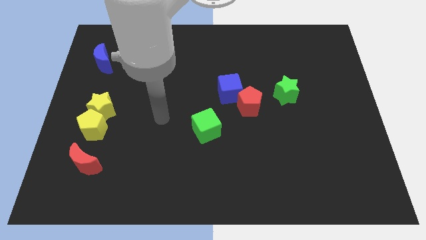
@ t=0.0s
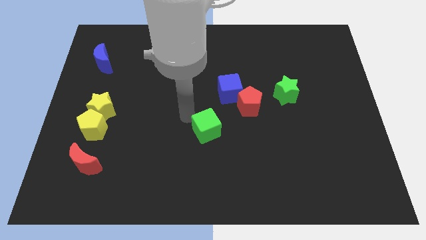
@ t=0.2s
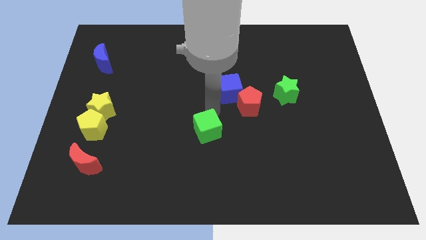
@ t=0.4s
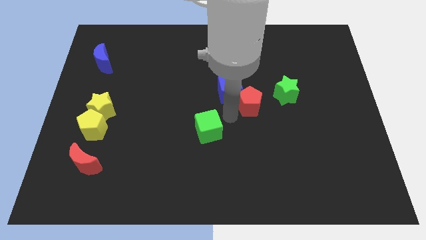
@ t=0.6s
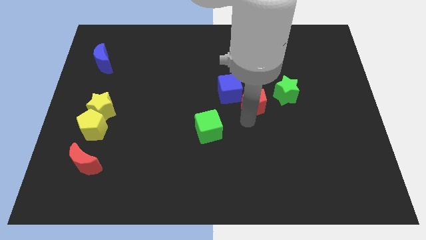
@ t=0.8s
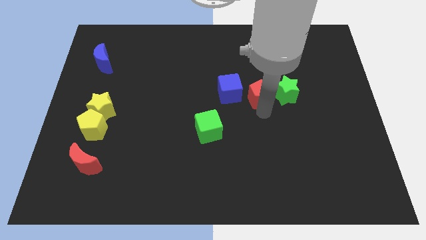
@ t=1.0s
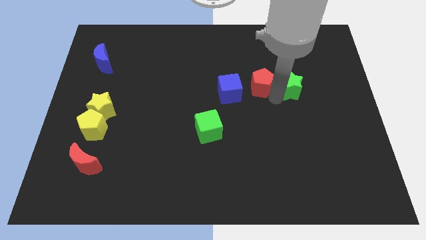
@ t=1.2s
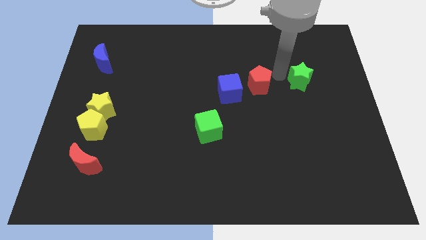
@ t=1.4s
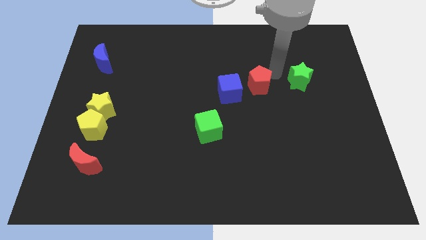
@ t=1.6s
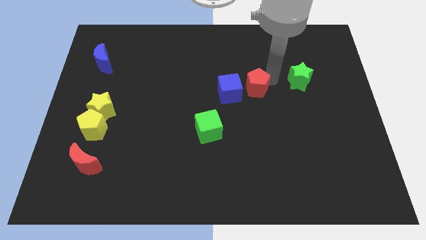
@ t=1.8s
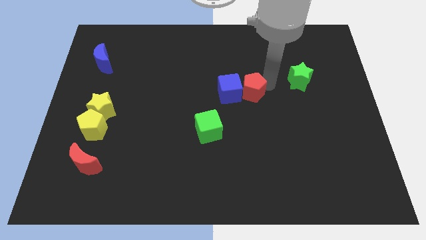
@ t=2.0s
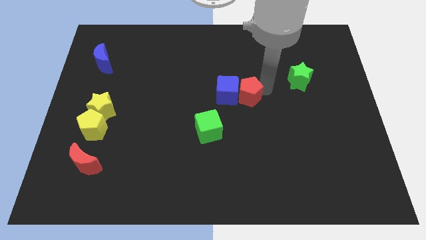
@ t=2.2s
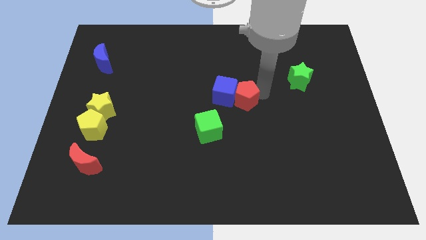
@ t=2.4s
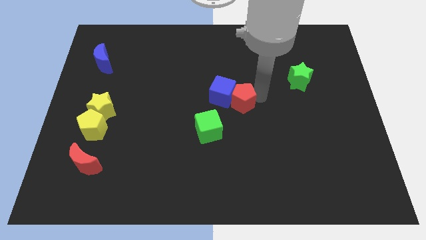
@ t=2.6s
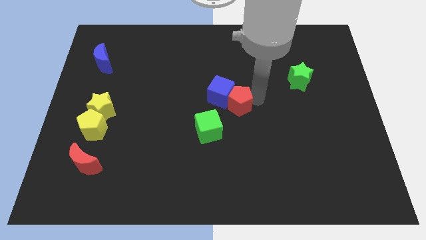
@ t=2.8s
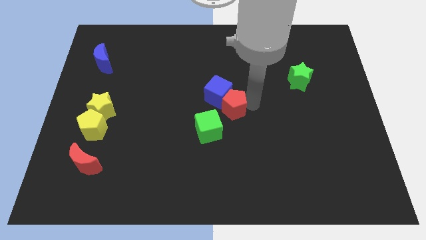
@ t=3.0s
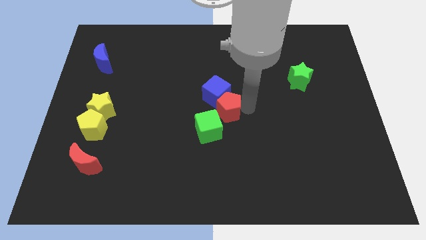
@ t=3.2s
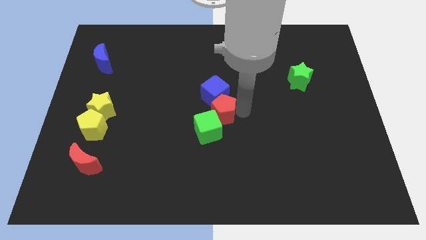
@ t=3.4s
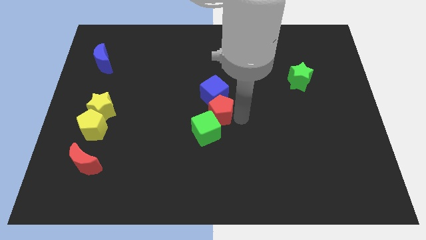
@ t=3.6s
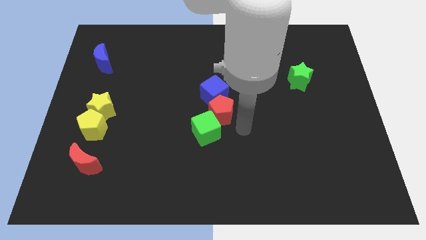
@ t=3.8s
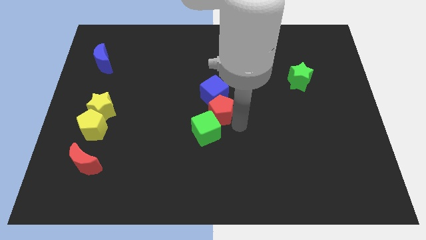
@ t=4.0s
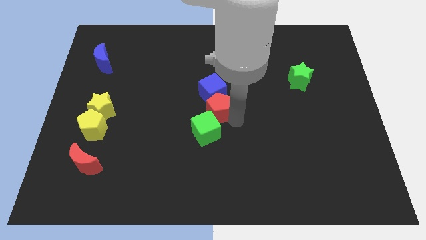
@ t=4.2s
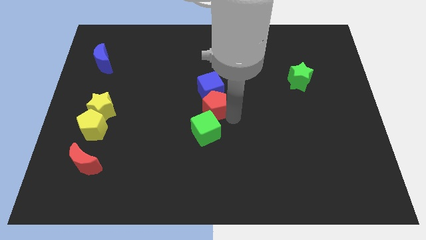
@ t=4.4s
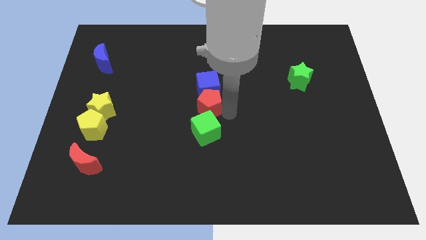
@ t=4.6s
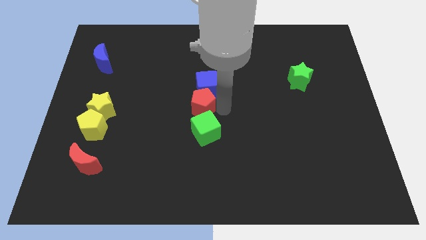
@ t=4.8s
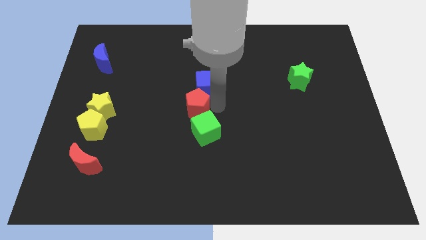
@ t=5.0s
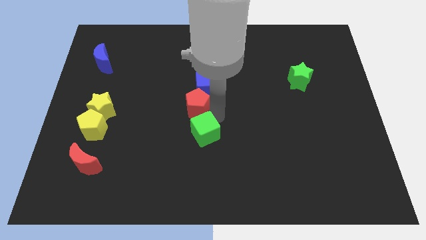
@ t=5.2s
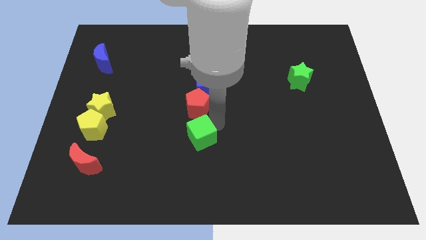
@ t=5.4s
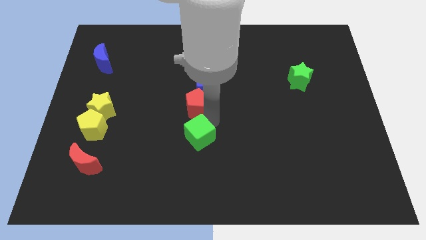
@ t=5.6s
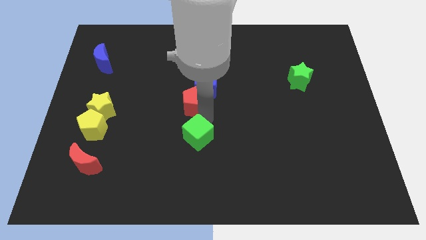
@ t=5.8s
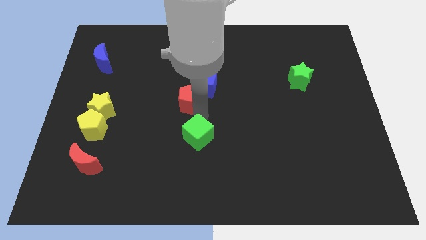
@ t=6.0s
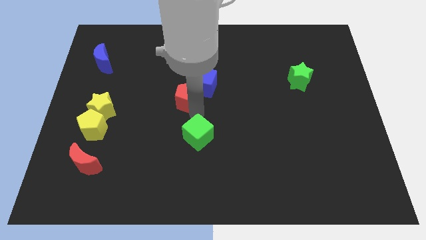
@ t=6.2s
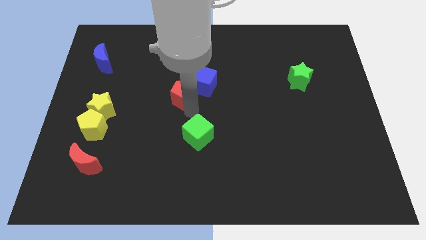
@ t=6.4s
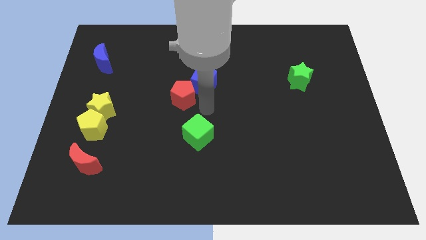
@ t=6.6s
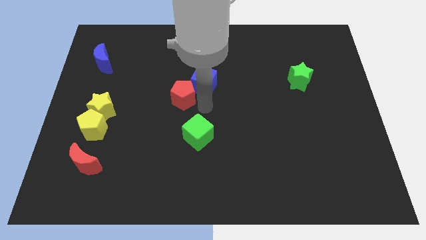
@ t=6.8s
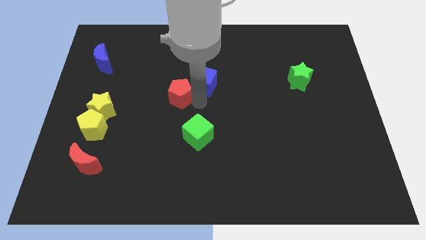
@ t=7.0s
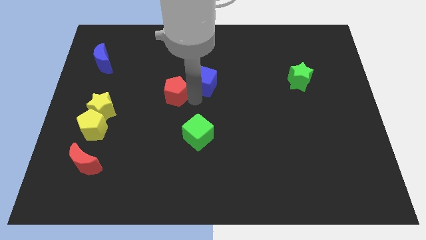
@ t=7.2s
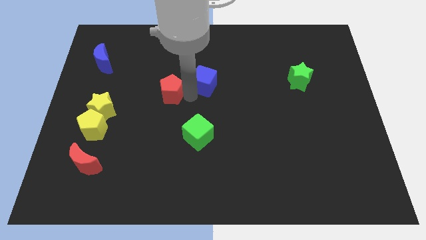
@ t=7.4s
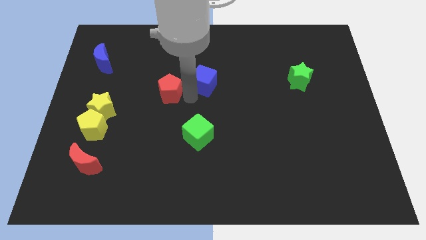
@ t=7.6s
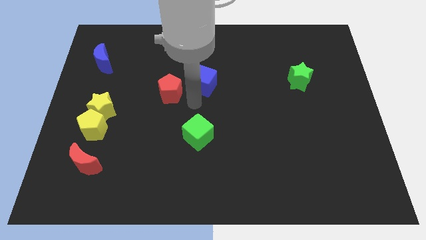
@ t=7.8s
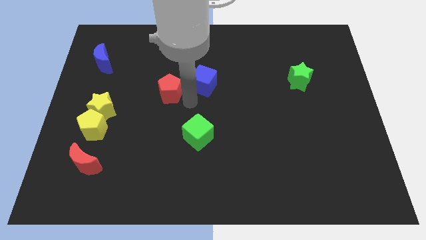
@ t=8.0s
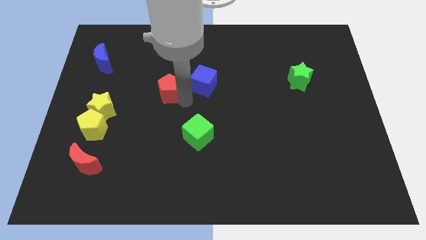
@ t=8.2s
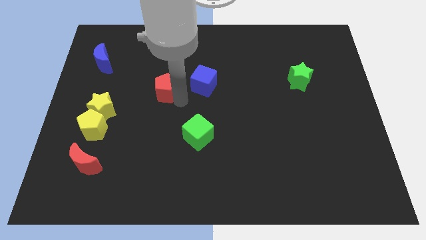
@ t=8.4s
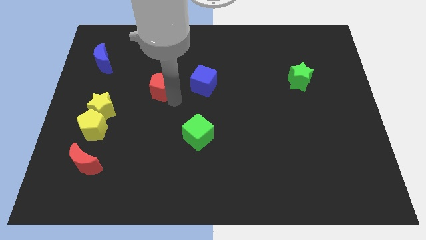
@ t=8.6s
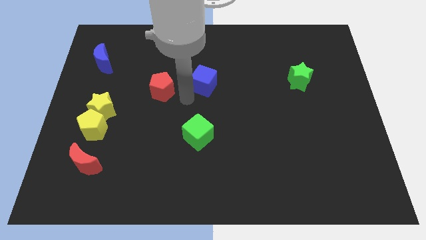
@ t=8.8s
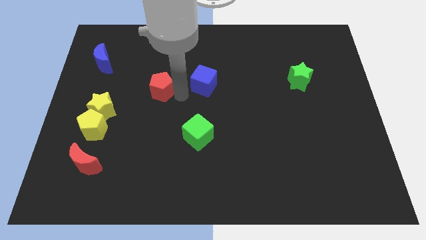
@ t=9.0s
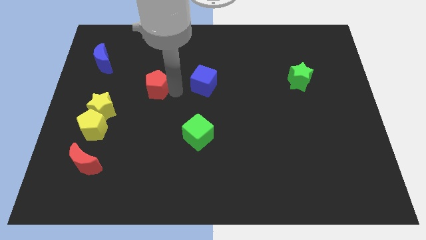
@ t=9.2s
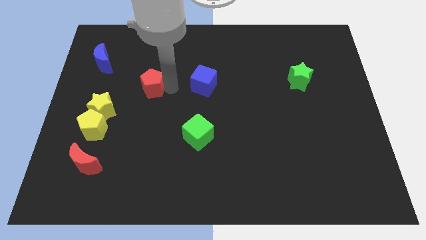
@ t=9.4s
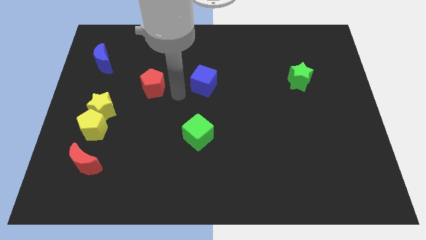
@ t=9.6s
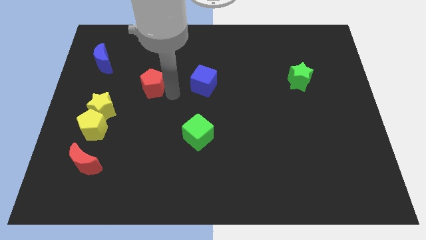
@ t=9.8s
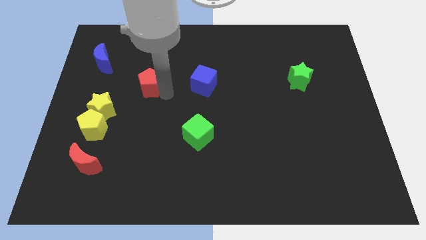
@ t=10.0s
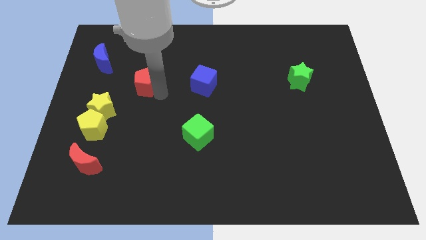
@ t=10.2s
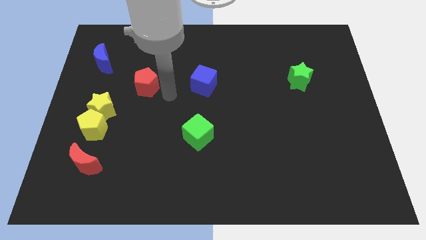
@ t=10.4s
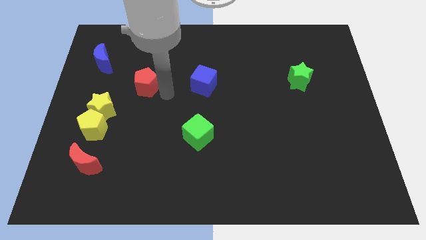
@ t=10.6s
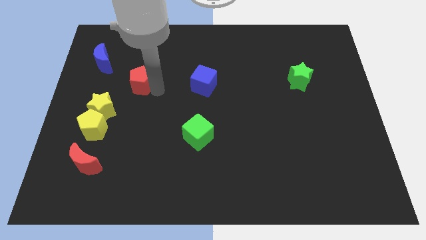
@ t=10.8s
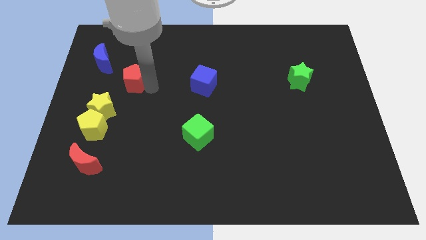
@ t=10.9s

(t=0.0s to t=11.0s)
slide the red pentagon diagonally down and to the right of the blue moon

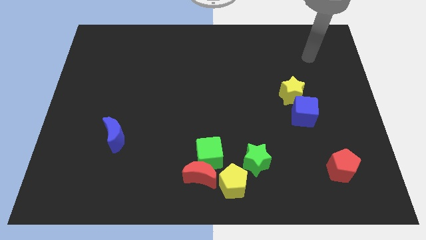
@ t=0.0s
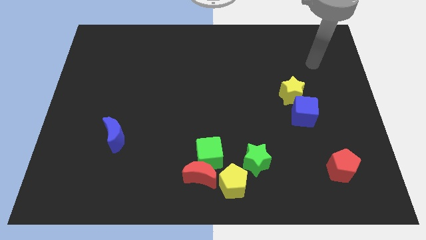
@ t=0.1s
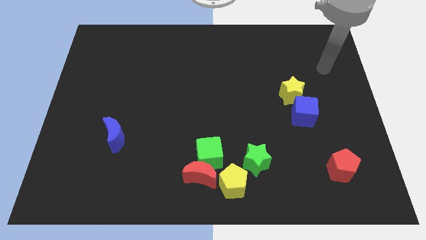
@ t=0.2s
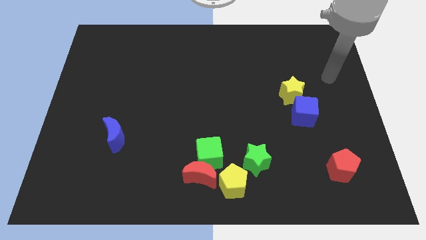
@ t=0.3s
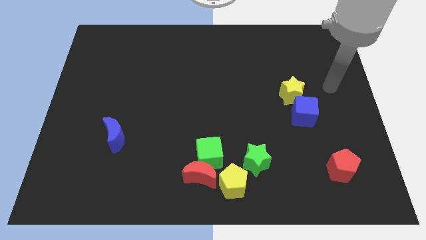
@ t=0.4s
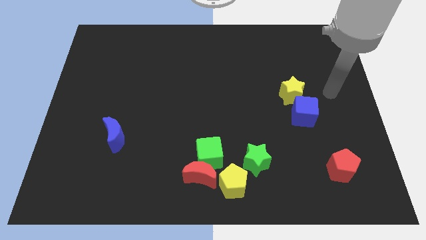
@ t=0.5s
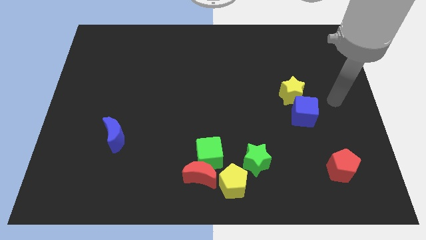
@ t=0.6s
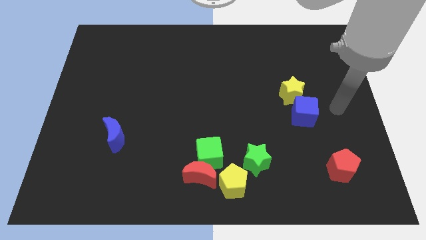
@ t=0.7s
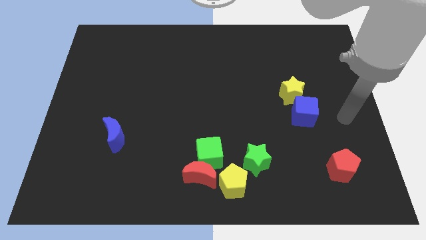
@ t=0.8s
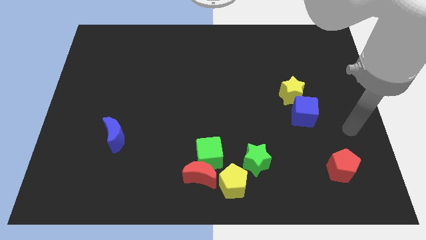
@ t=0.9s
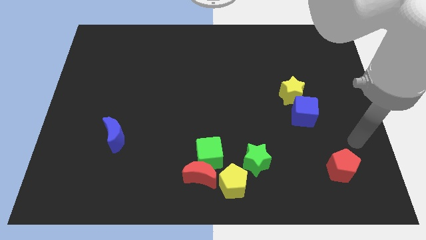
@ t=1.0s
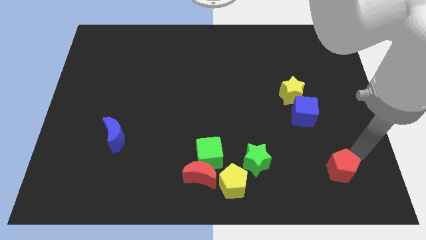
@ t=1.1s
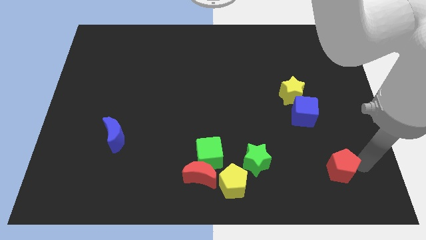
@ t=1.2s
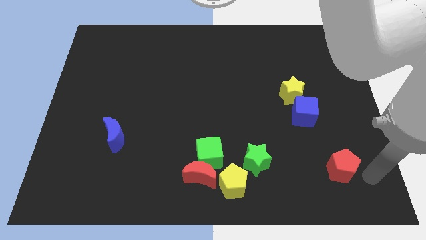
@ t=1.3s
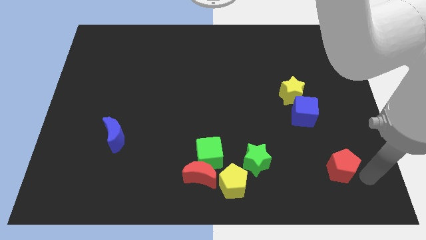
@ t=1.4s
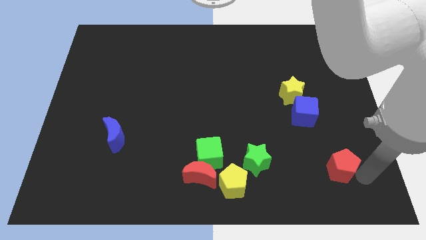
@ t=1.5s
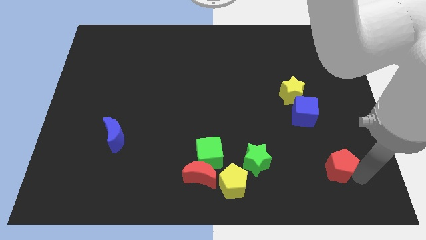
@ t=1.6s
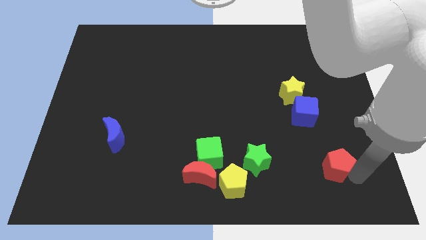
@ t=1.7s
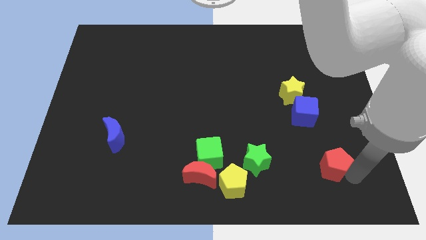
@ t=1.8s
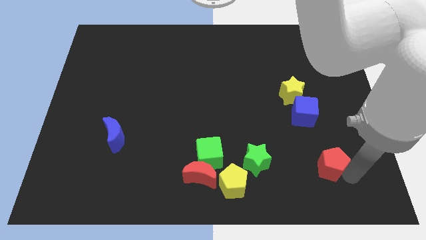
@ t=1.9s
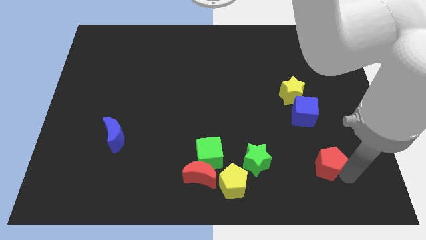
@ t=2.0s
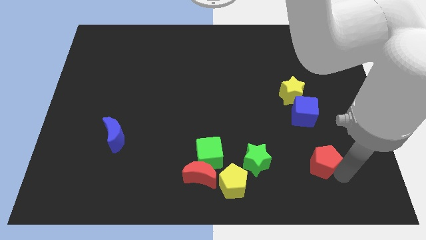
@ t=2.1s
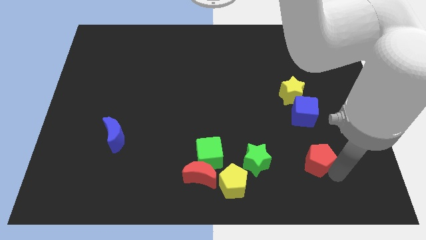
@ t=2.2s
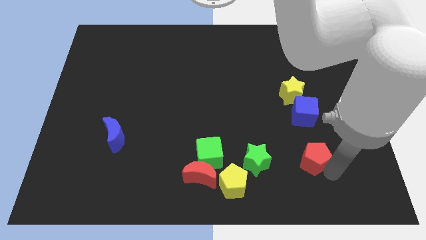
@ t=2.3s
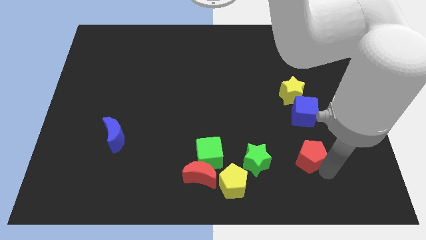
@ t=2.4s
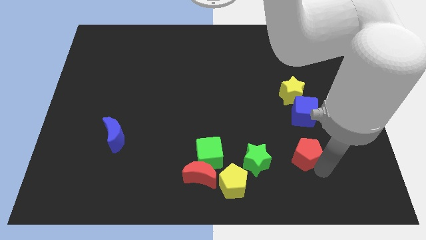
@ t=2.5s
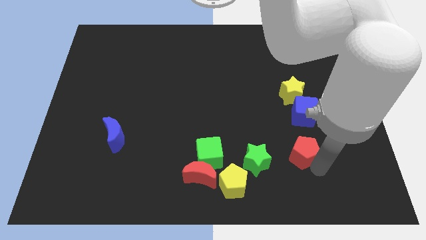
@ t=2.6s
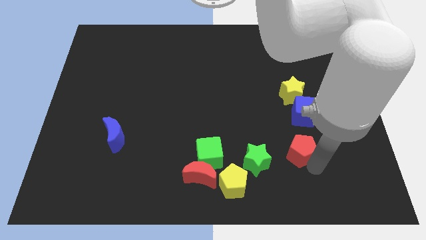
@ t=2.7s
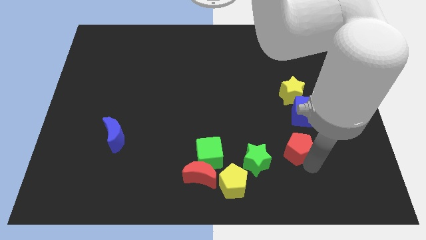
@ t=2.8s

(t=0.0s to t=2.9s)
slide the red pentagon diagonally up and to the right of the green star
